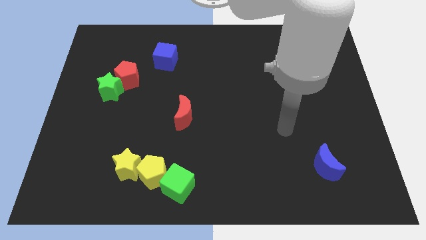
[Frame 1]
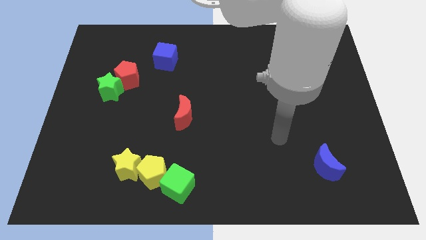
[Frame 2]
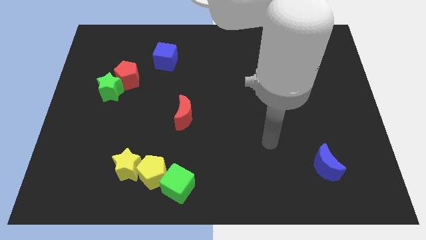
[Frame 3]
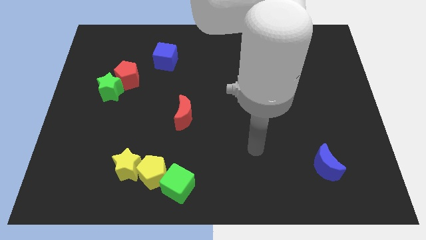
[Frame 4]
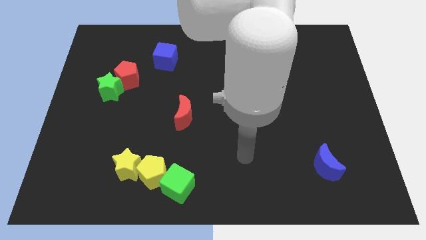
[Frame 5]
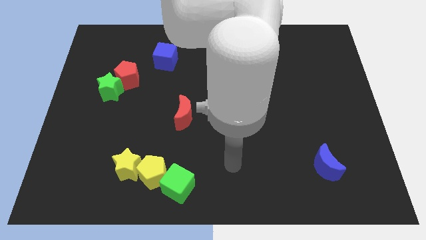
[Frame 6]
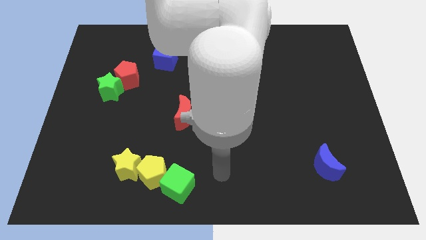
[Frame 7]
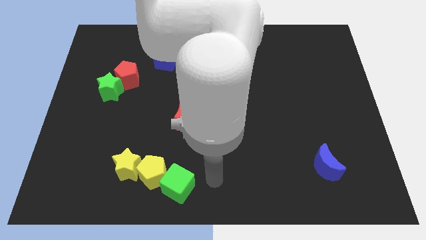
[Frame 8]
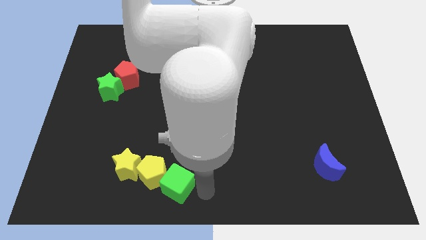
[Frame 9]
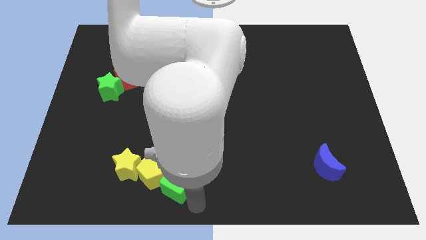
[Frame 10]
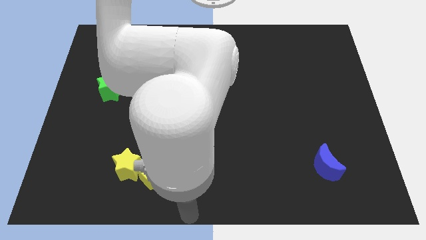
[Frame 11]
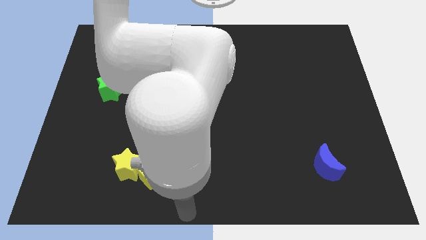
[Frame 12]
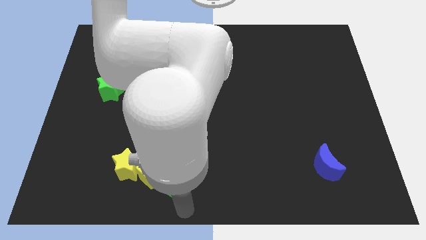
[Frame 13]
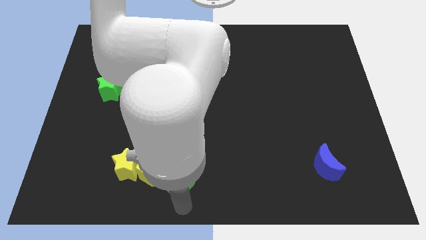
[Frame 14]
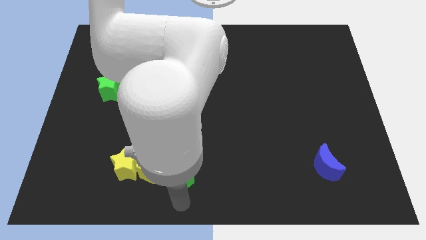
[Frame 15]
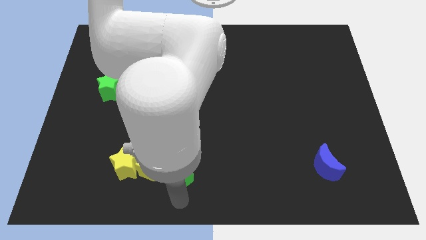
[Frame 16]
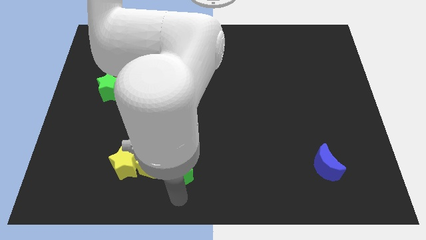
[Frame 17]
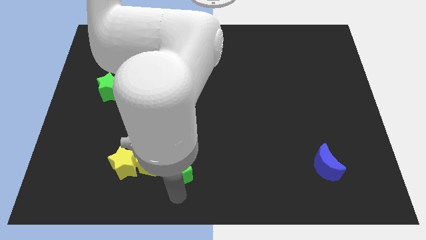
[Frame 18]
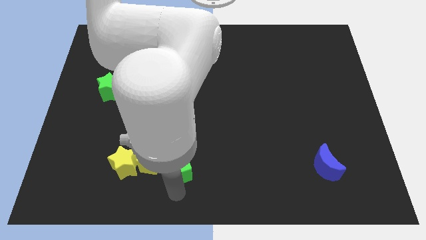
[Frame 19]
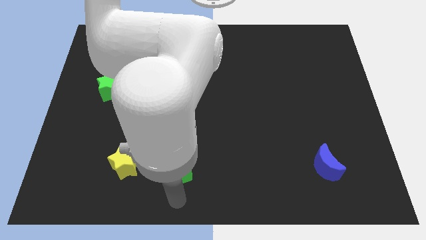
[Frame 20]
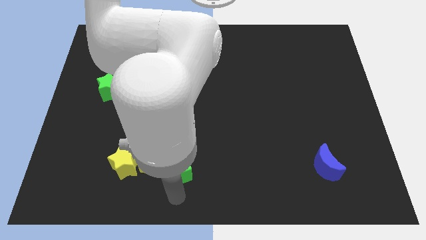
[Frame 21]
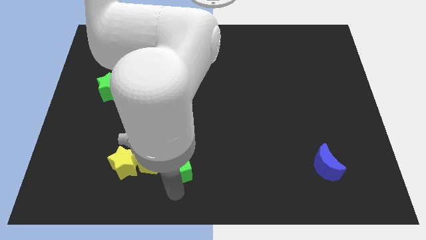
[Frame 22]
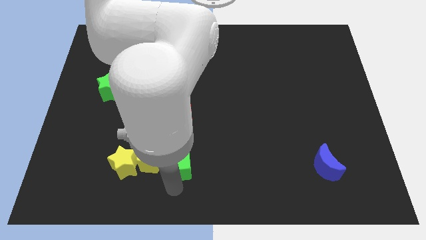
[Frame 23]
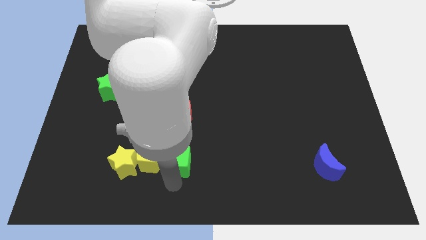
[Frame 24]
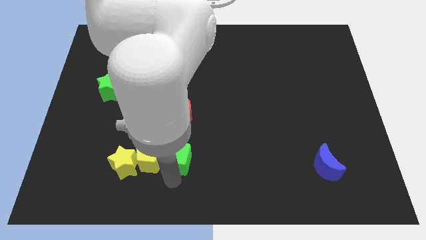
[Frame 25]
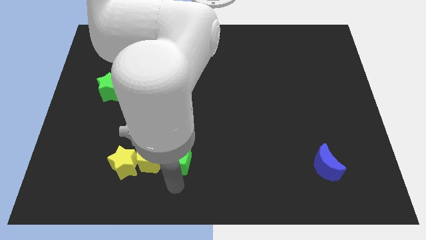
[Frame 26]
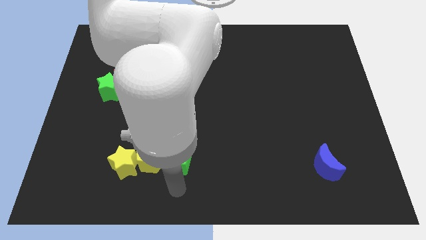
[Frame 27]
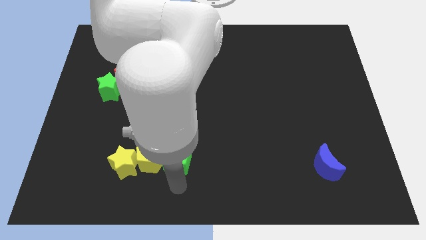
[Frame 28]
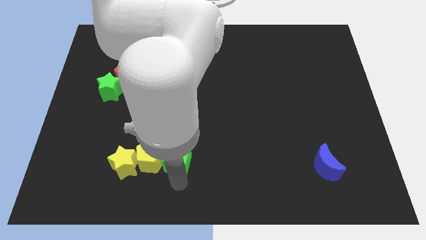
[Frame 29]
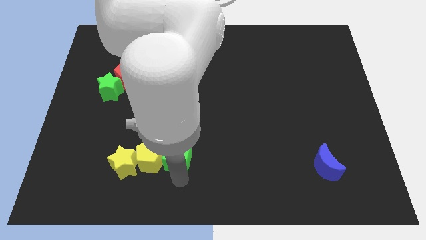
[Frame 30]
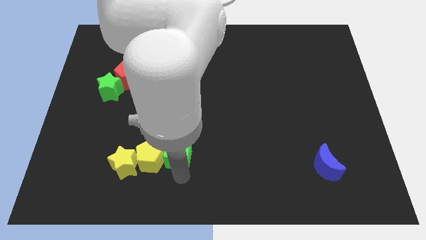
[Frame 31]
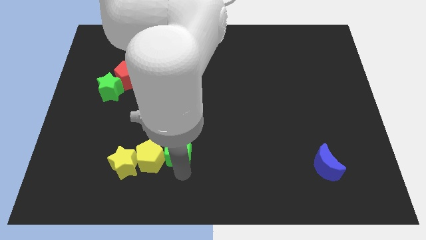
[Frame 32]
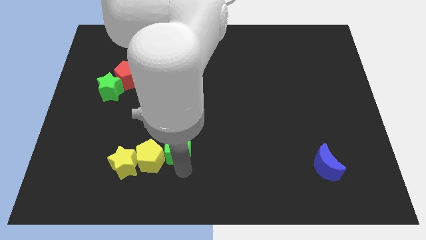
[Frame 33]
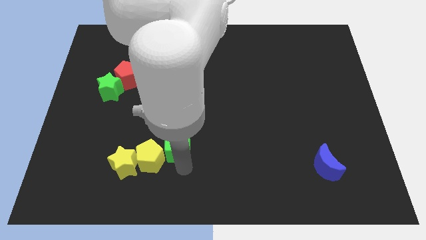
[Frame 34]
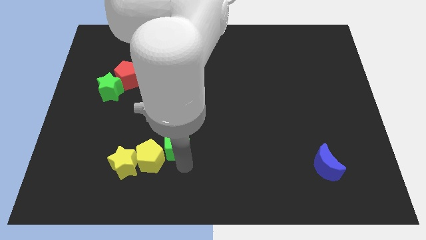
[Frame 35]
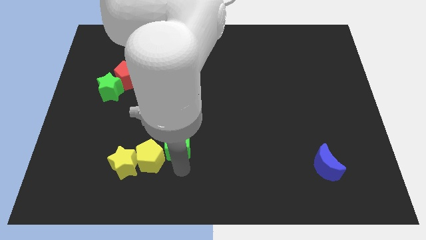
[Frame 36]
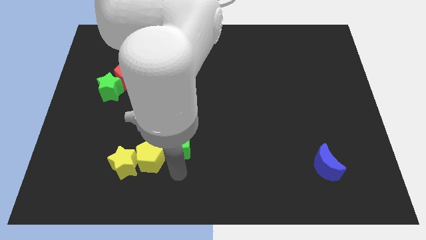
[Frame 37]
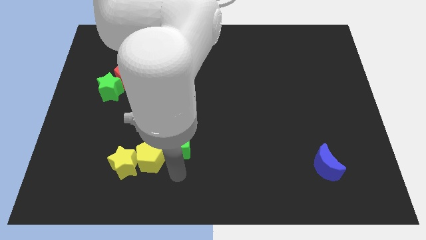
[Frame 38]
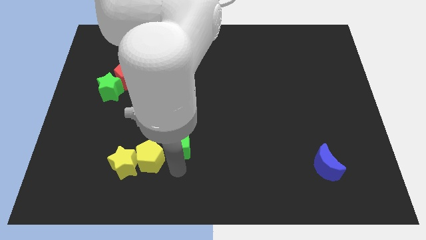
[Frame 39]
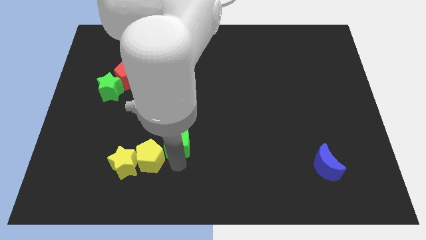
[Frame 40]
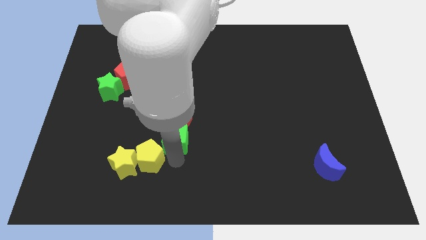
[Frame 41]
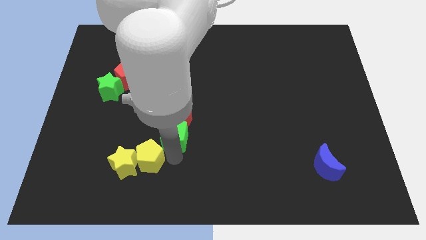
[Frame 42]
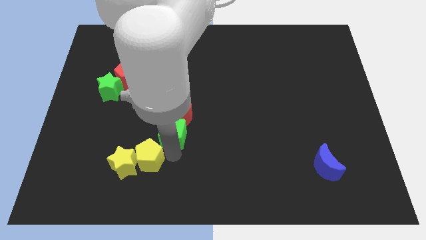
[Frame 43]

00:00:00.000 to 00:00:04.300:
put the green cube to the red moon

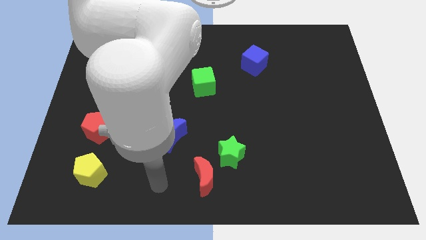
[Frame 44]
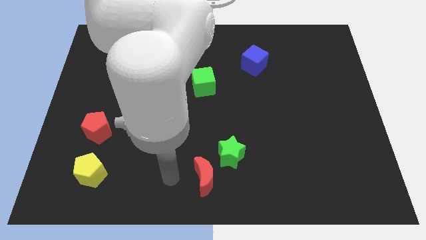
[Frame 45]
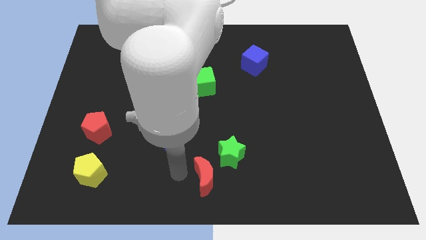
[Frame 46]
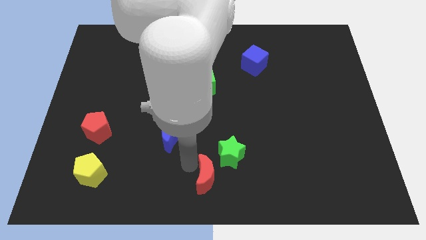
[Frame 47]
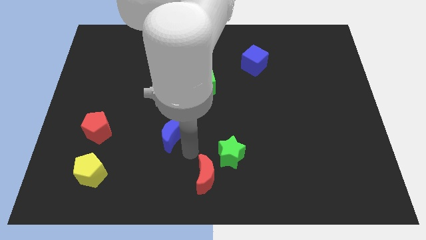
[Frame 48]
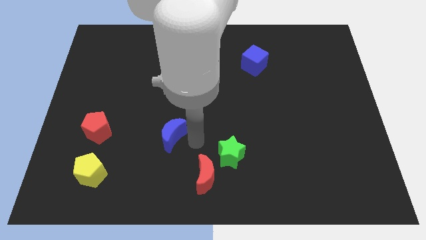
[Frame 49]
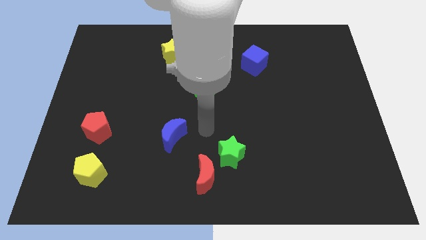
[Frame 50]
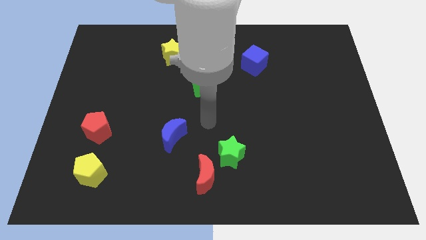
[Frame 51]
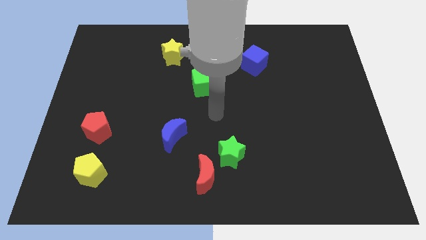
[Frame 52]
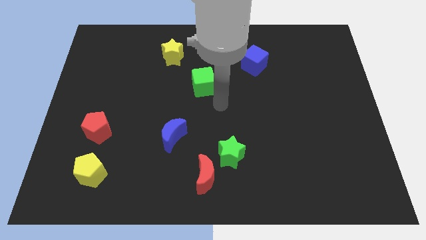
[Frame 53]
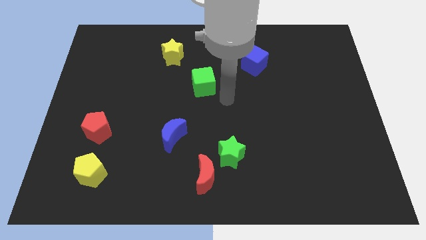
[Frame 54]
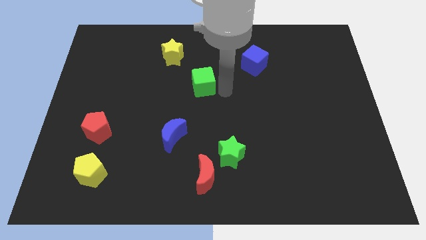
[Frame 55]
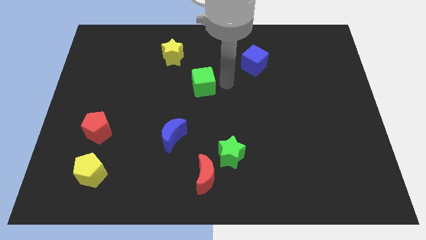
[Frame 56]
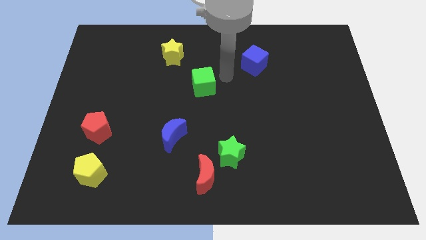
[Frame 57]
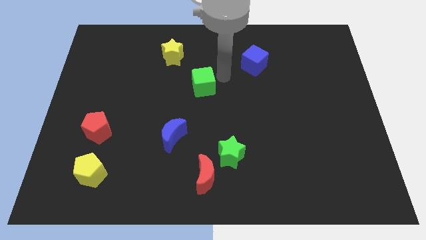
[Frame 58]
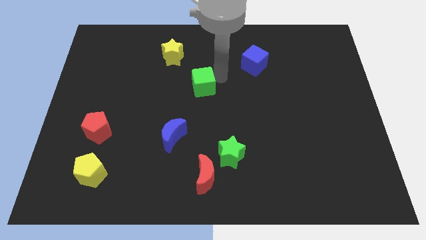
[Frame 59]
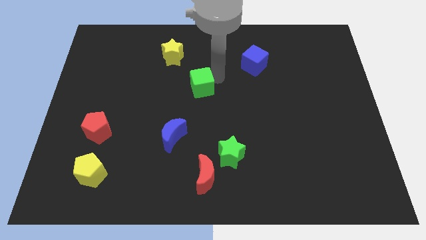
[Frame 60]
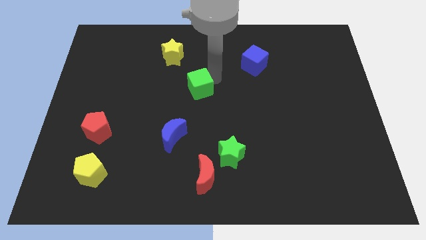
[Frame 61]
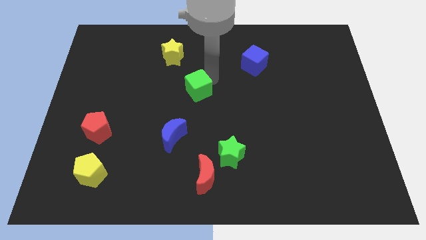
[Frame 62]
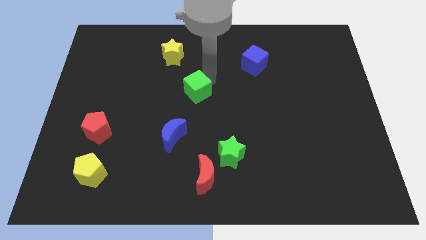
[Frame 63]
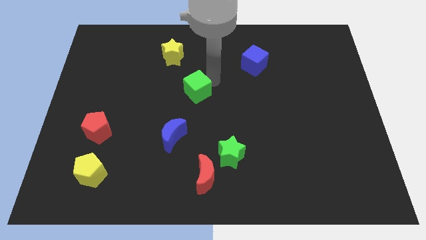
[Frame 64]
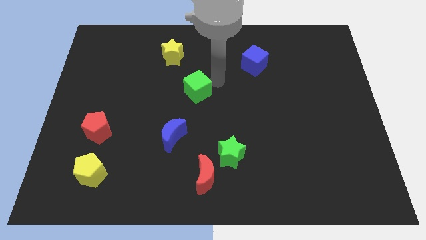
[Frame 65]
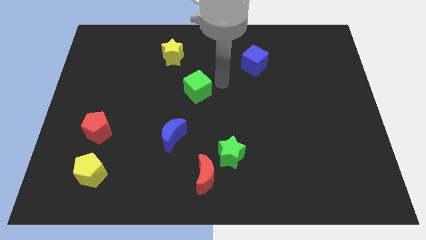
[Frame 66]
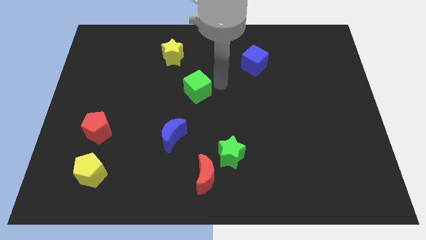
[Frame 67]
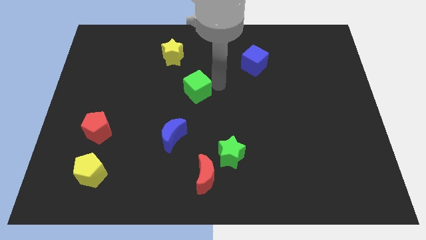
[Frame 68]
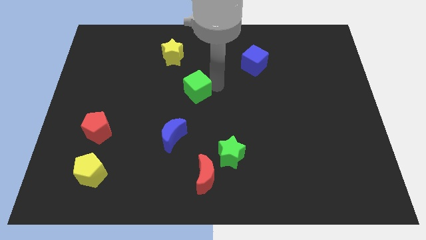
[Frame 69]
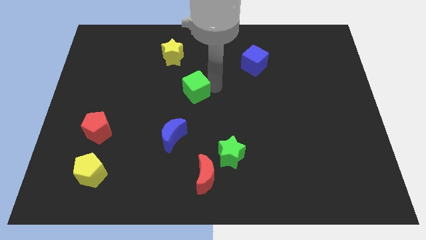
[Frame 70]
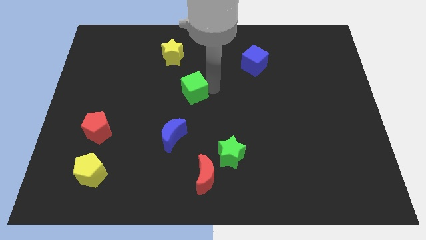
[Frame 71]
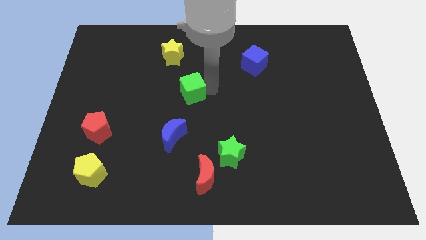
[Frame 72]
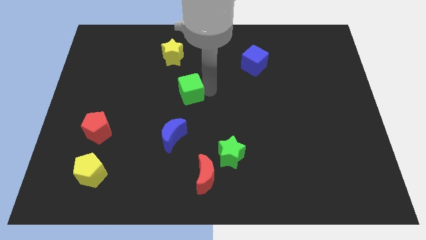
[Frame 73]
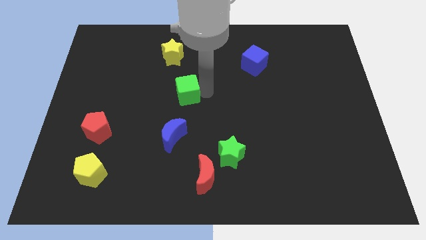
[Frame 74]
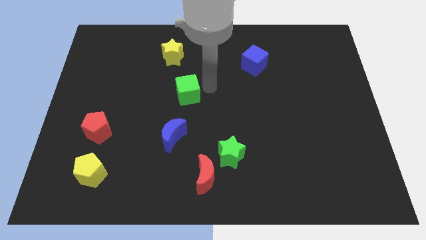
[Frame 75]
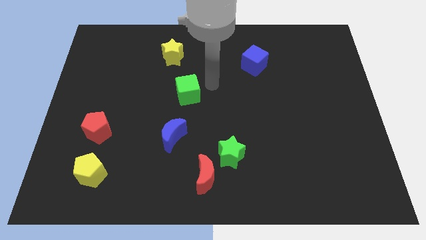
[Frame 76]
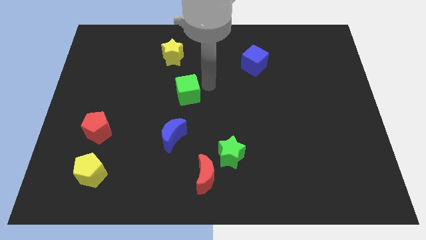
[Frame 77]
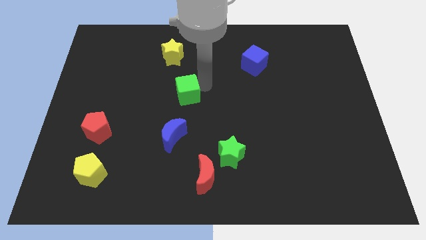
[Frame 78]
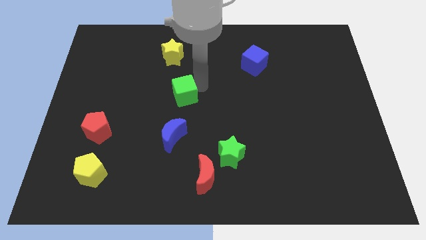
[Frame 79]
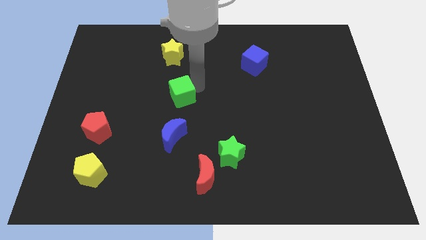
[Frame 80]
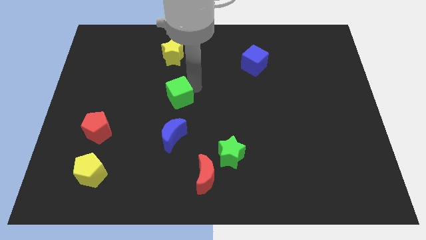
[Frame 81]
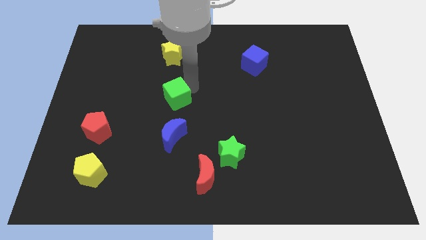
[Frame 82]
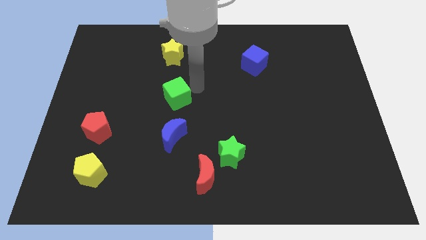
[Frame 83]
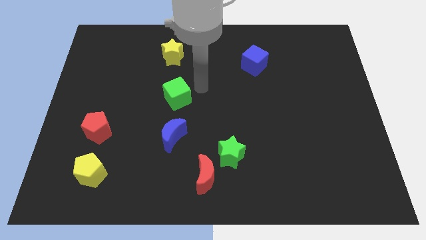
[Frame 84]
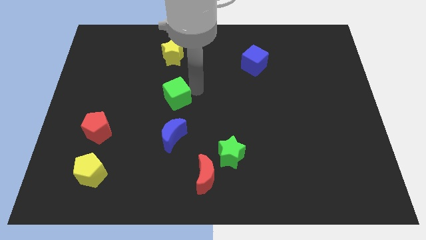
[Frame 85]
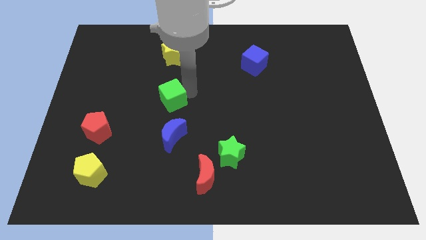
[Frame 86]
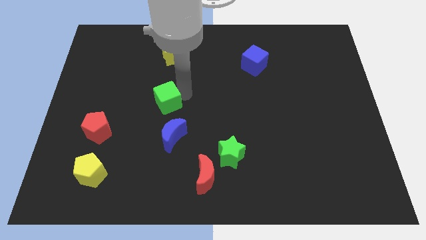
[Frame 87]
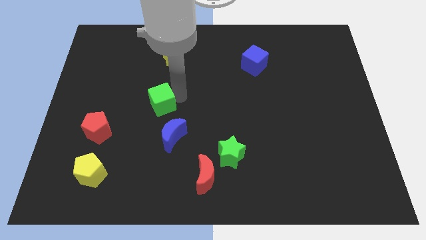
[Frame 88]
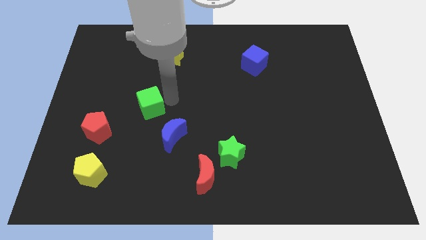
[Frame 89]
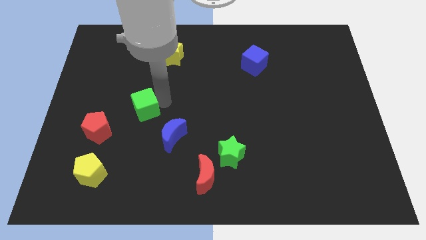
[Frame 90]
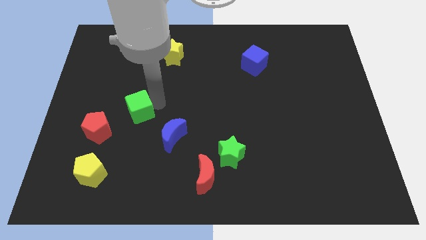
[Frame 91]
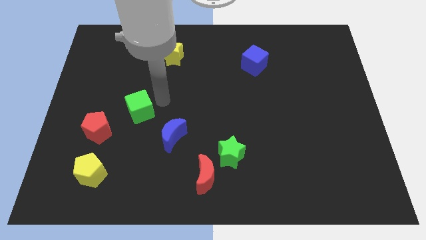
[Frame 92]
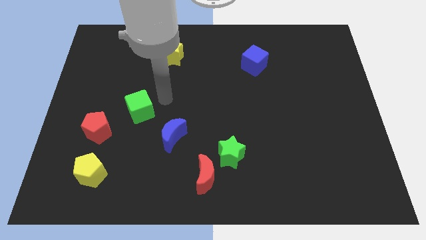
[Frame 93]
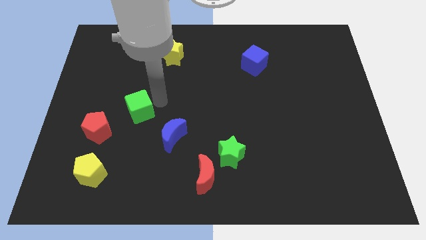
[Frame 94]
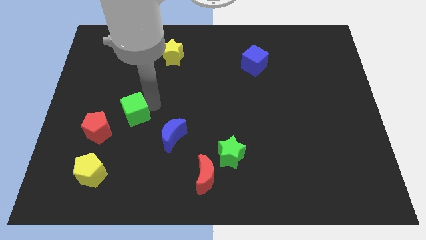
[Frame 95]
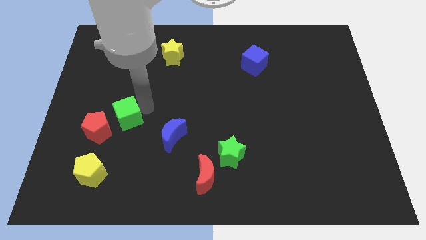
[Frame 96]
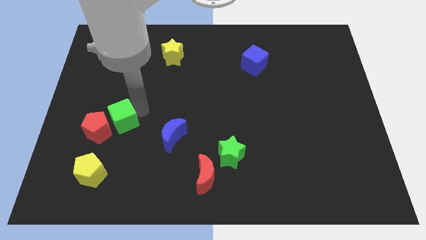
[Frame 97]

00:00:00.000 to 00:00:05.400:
slide the green cube next to the red pentagon
